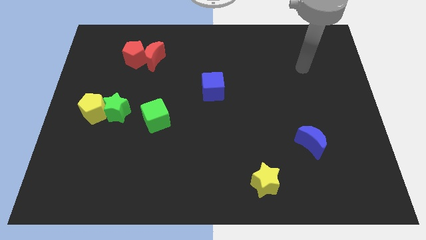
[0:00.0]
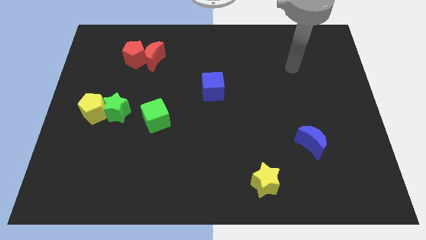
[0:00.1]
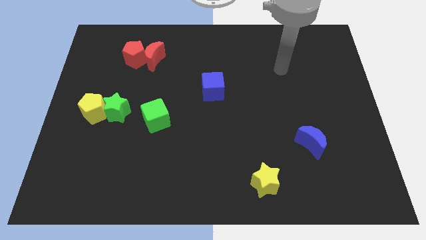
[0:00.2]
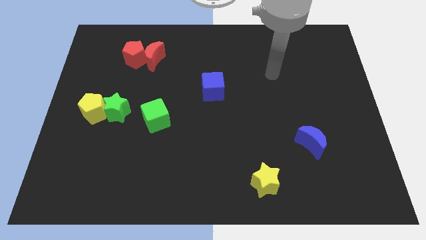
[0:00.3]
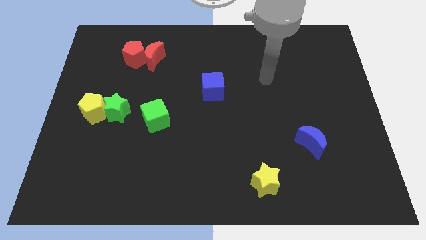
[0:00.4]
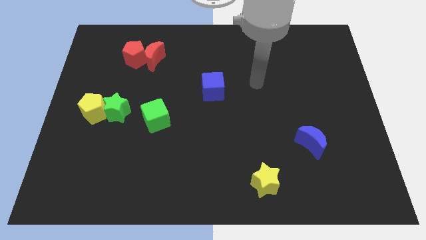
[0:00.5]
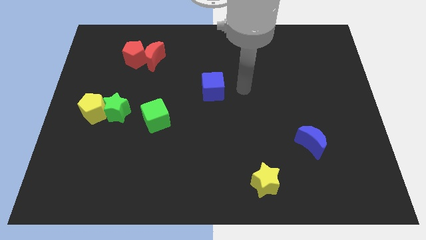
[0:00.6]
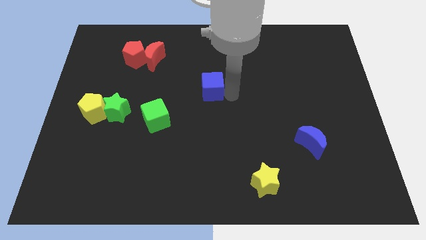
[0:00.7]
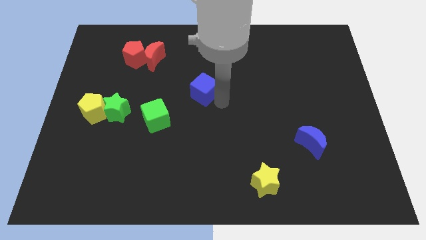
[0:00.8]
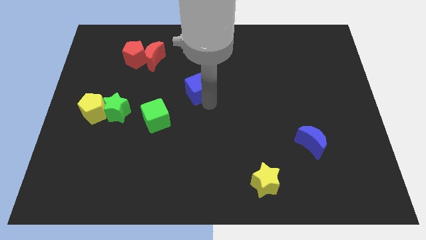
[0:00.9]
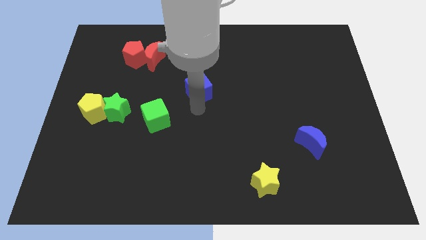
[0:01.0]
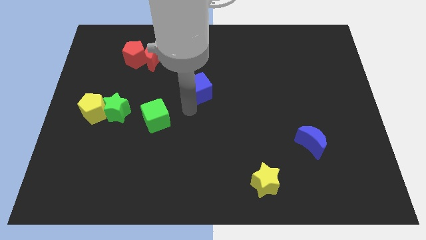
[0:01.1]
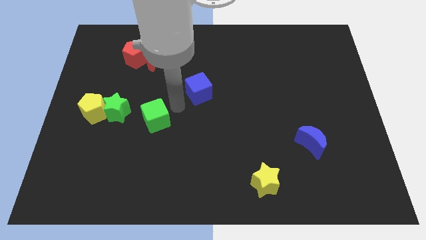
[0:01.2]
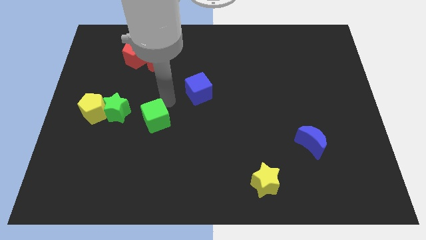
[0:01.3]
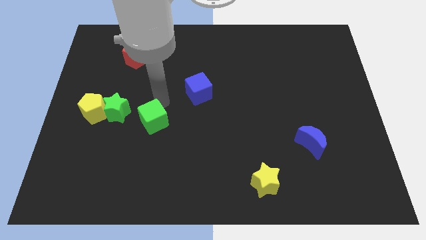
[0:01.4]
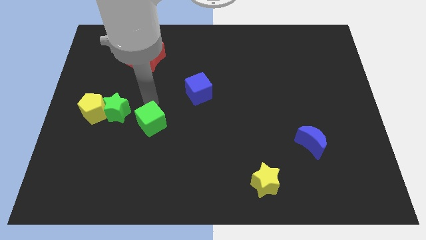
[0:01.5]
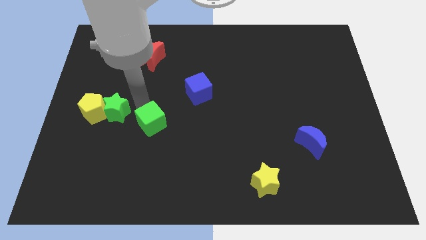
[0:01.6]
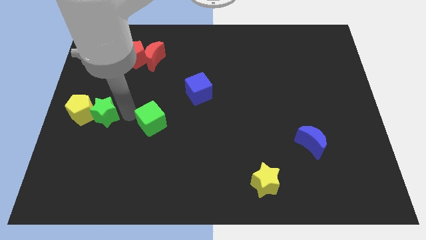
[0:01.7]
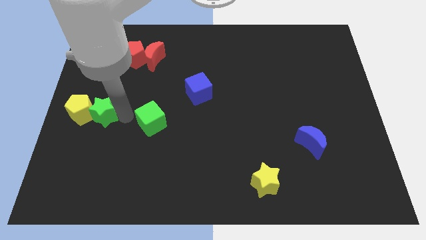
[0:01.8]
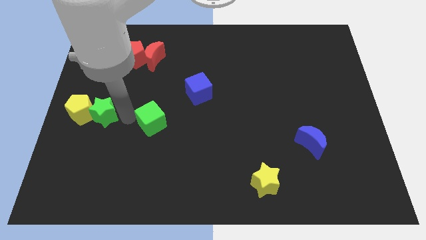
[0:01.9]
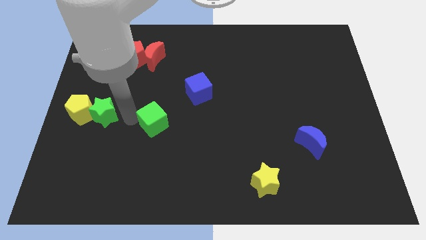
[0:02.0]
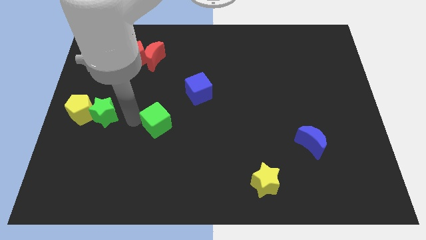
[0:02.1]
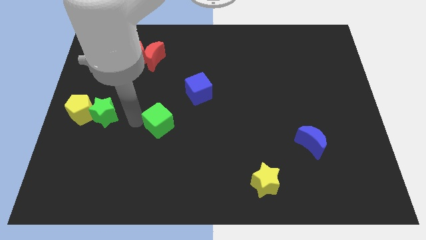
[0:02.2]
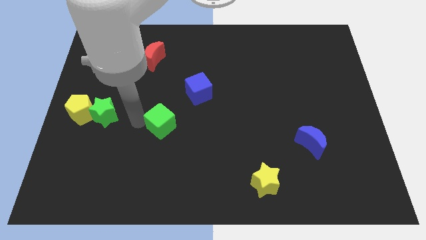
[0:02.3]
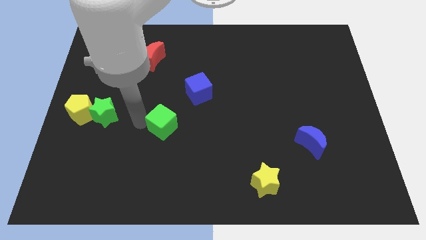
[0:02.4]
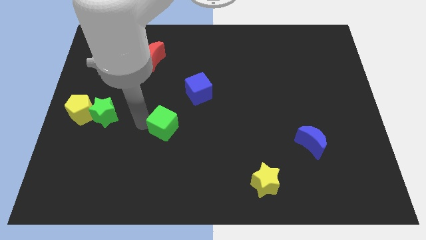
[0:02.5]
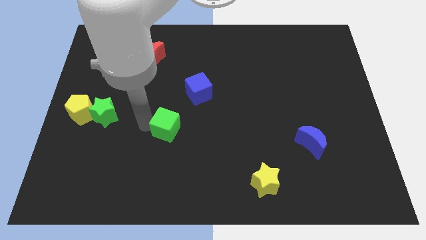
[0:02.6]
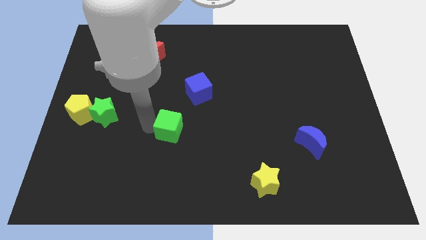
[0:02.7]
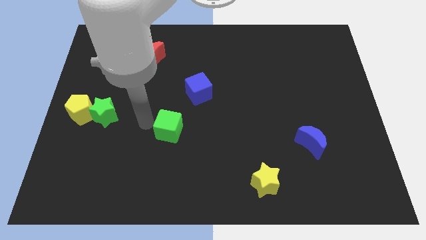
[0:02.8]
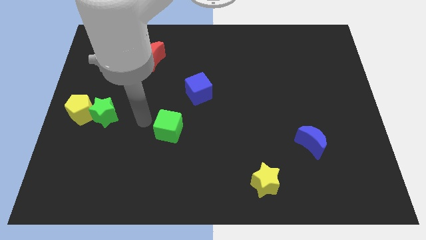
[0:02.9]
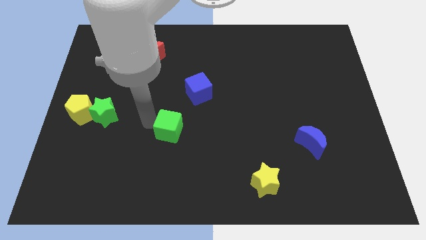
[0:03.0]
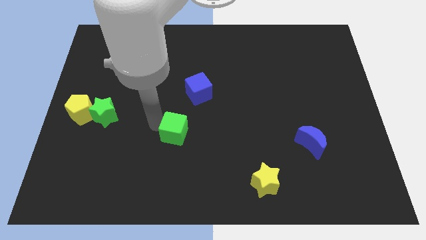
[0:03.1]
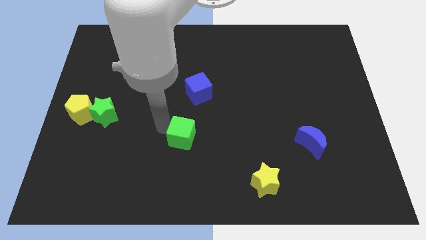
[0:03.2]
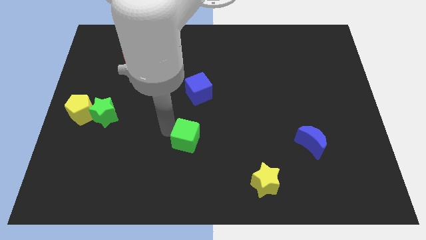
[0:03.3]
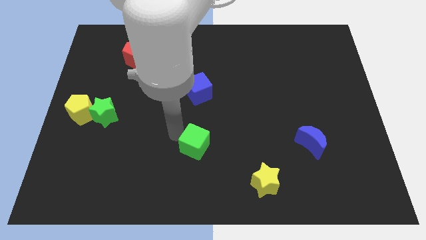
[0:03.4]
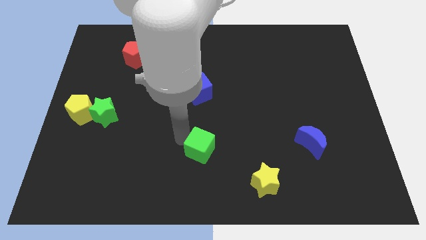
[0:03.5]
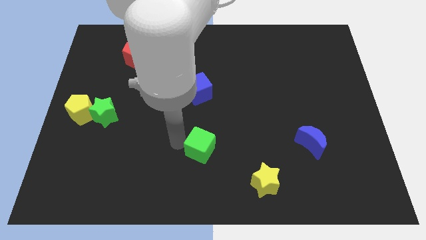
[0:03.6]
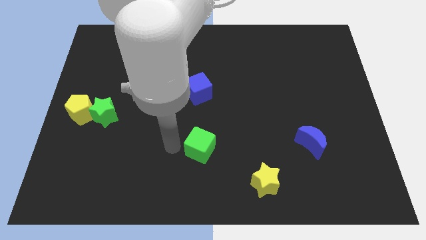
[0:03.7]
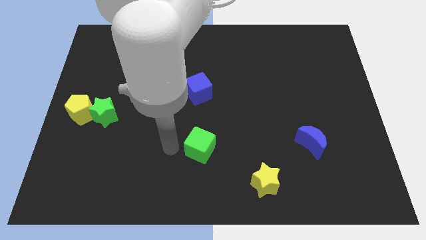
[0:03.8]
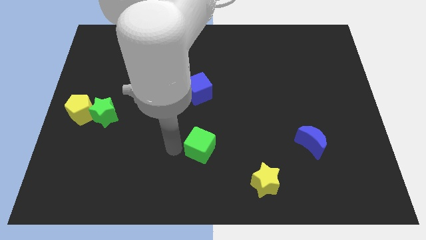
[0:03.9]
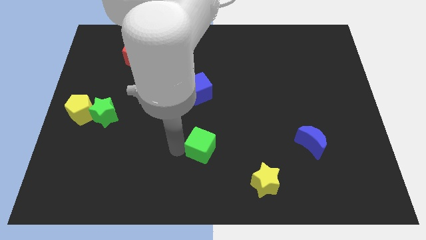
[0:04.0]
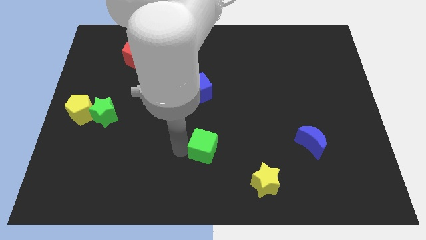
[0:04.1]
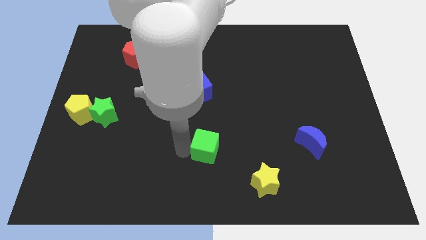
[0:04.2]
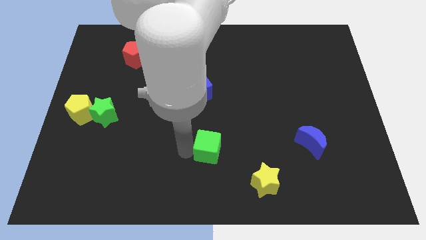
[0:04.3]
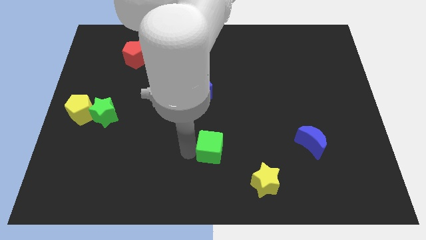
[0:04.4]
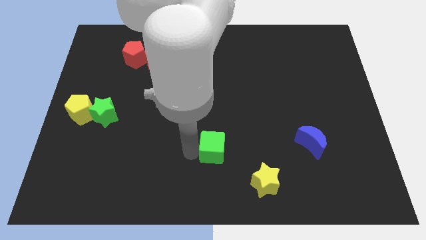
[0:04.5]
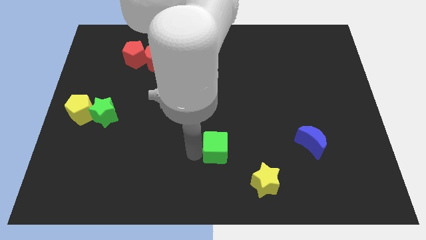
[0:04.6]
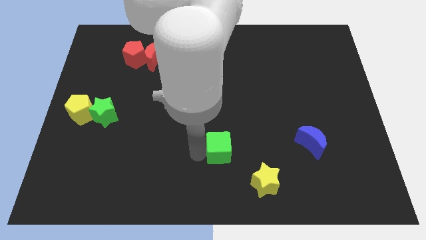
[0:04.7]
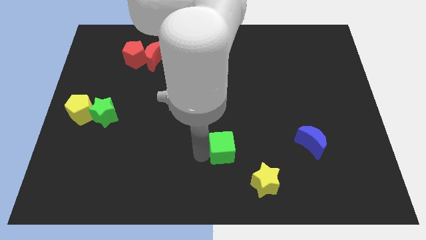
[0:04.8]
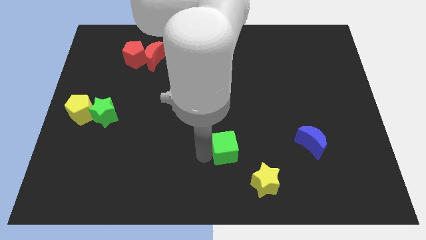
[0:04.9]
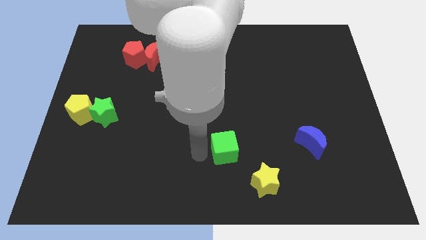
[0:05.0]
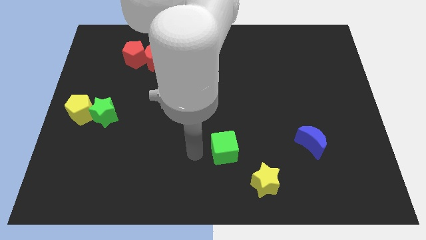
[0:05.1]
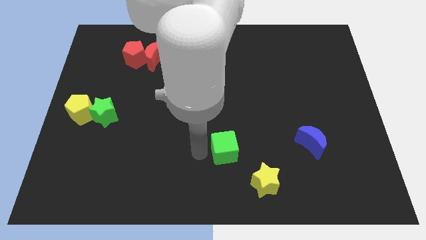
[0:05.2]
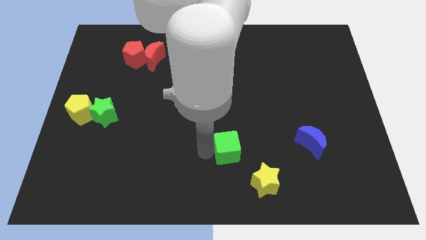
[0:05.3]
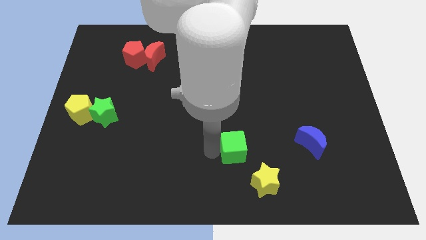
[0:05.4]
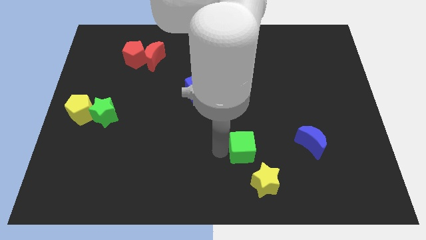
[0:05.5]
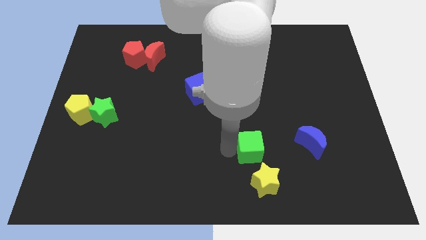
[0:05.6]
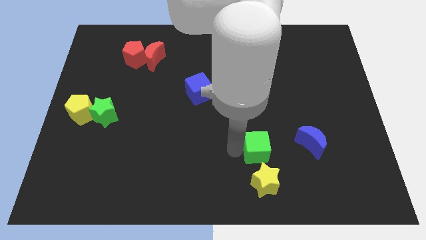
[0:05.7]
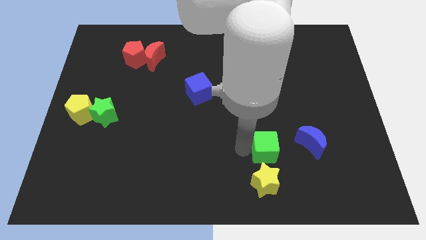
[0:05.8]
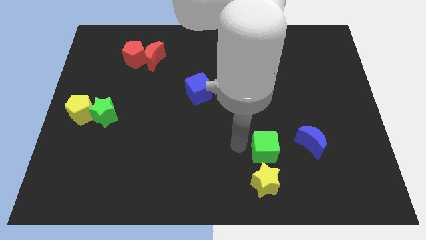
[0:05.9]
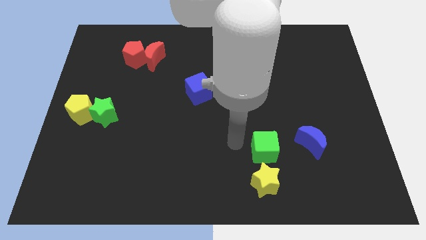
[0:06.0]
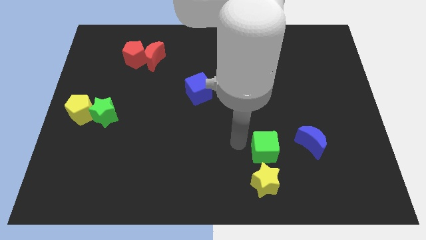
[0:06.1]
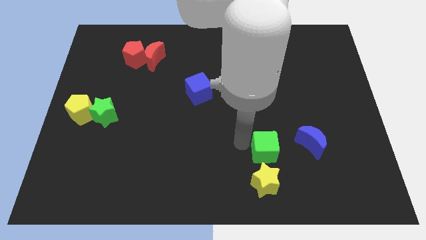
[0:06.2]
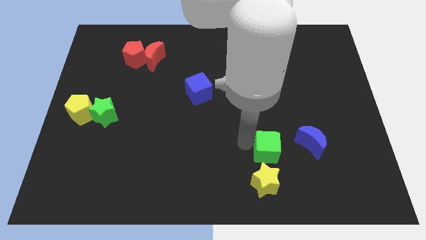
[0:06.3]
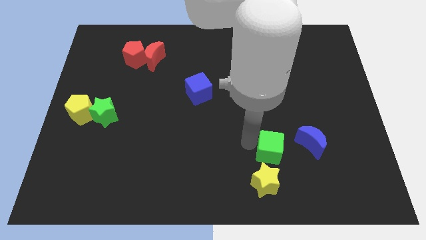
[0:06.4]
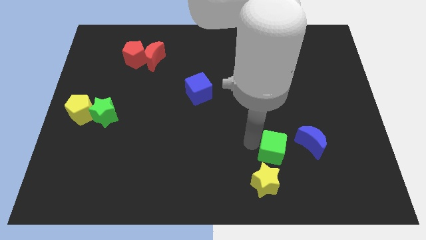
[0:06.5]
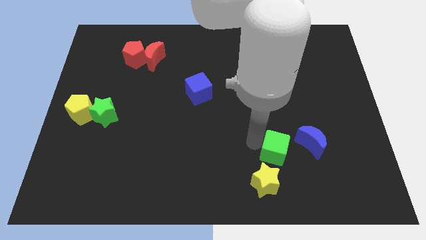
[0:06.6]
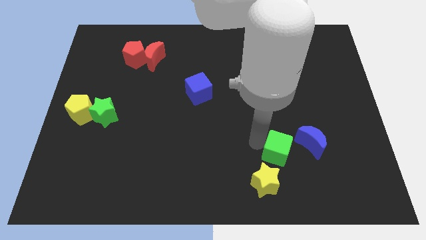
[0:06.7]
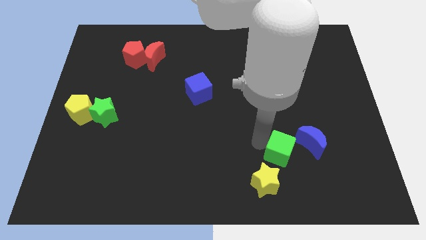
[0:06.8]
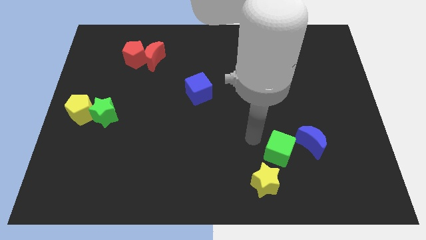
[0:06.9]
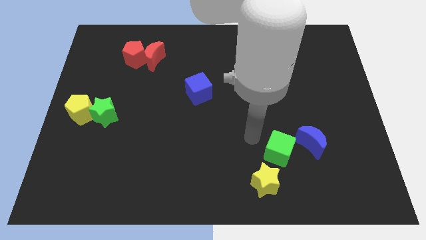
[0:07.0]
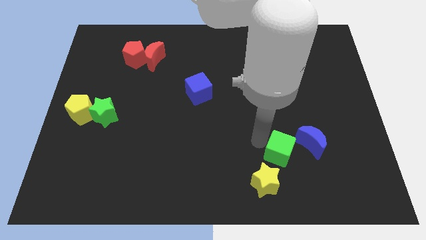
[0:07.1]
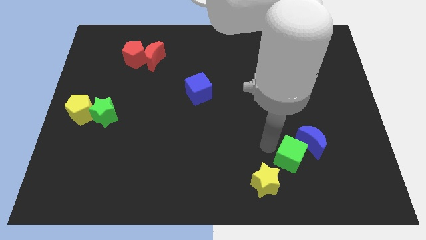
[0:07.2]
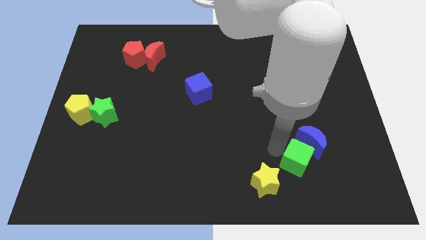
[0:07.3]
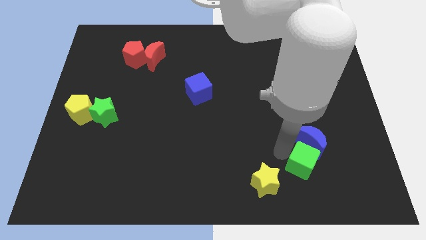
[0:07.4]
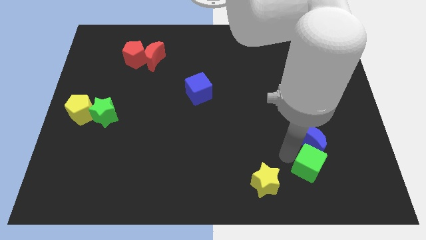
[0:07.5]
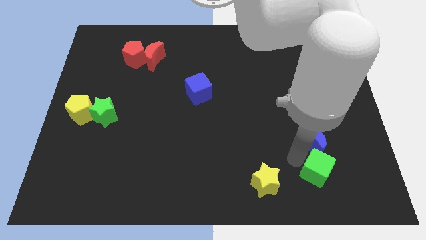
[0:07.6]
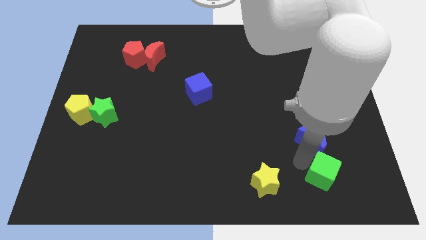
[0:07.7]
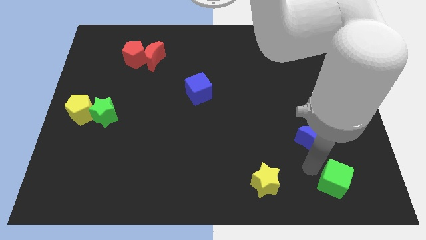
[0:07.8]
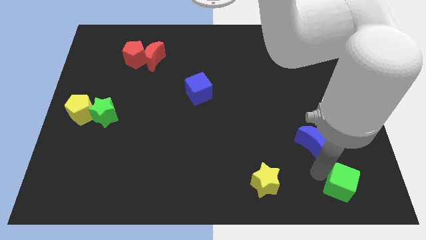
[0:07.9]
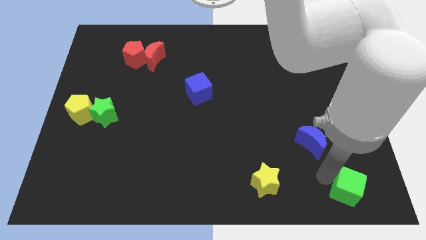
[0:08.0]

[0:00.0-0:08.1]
move the green cube to the lower right corner
